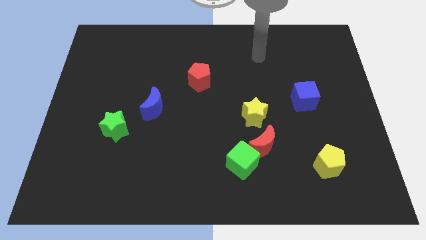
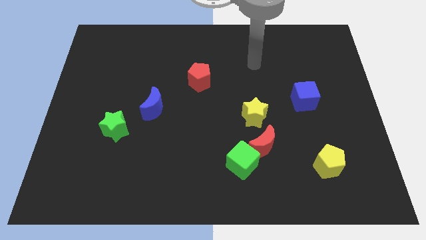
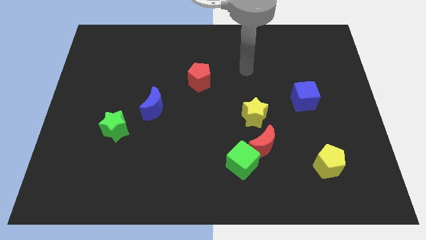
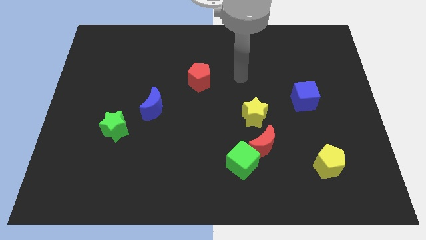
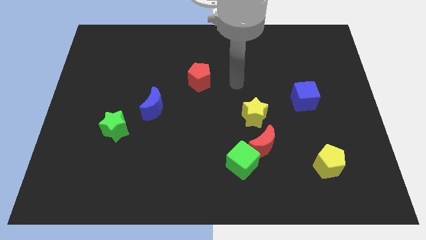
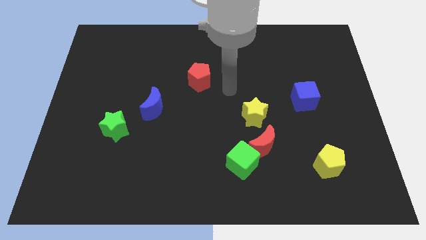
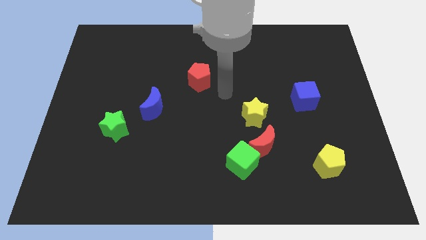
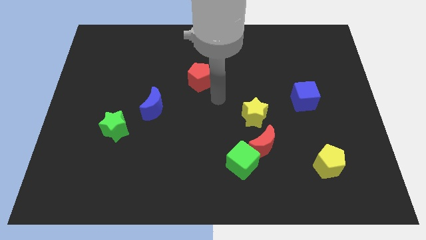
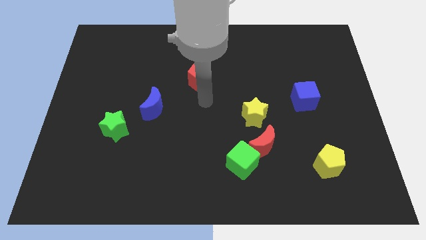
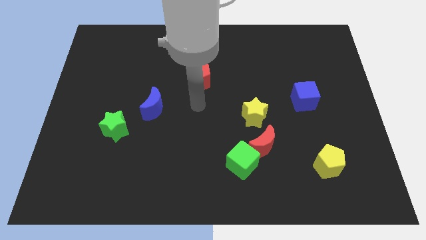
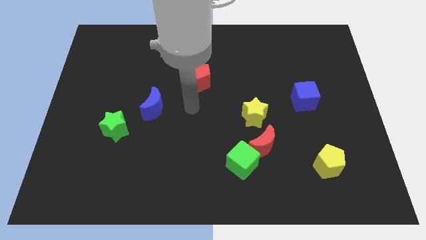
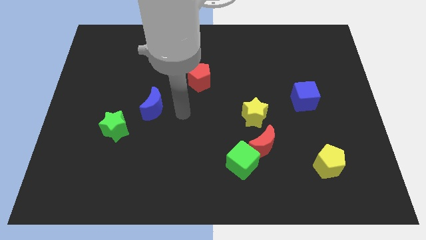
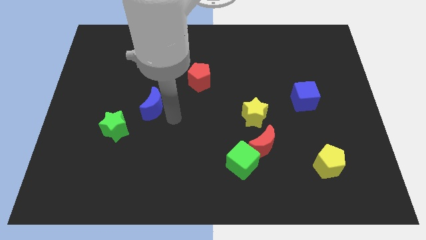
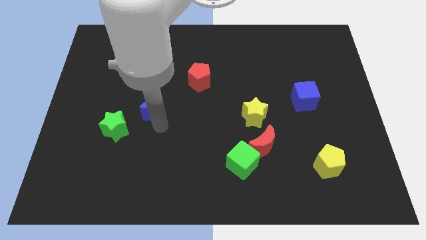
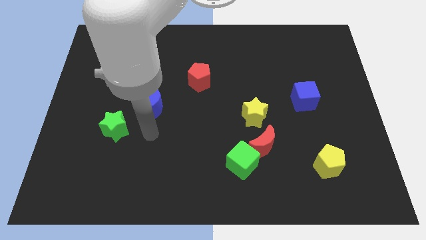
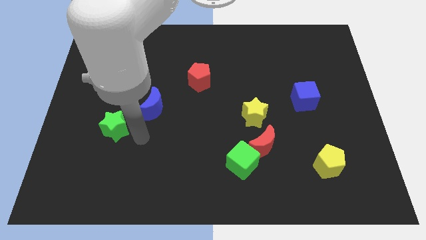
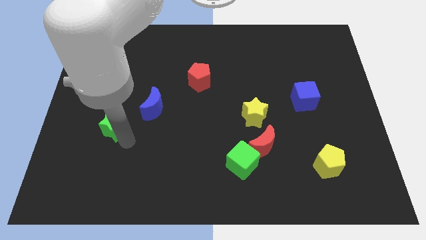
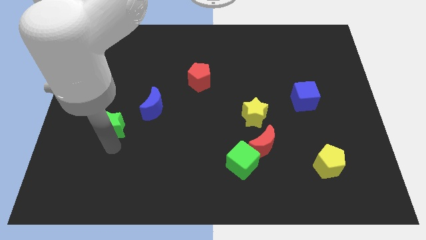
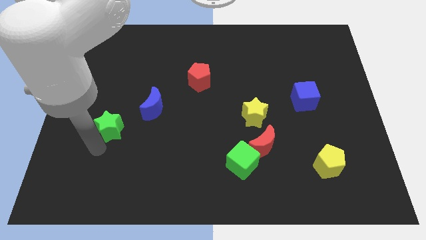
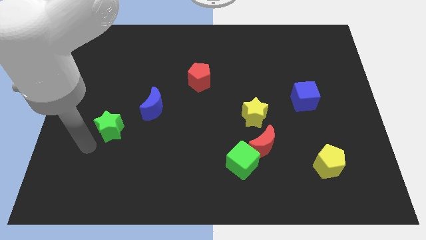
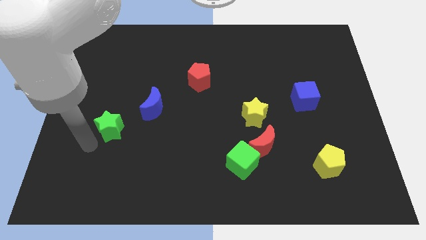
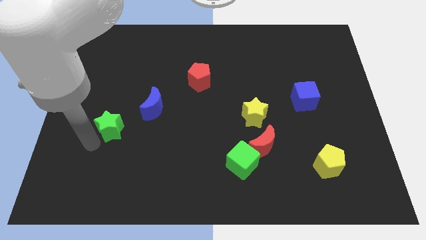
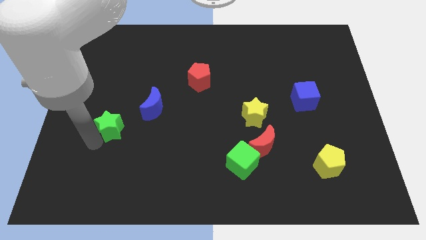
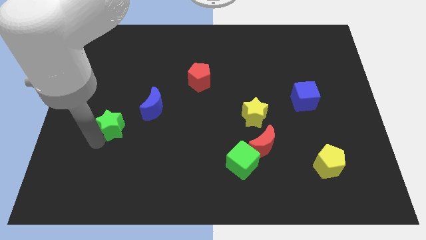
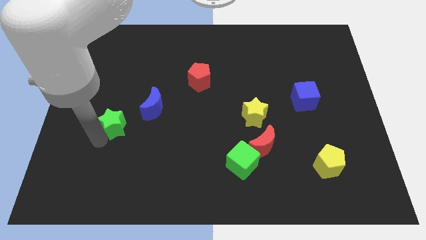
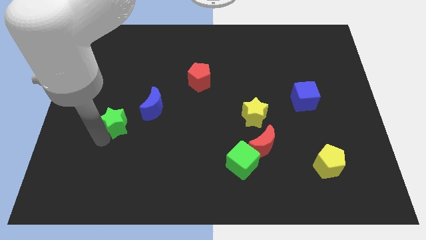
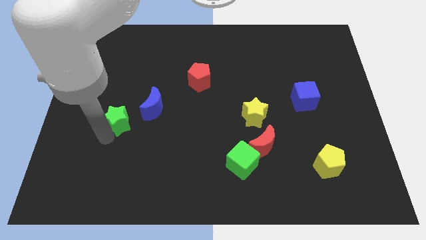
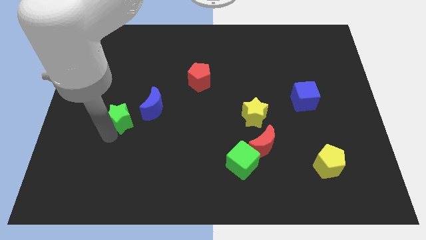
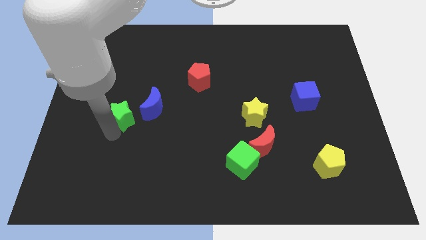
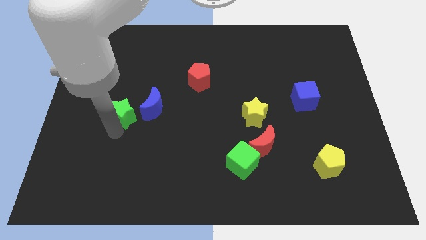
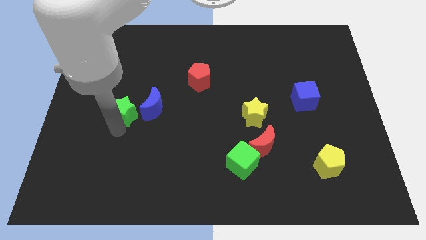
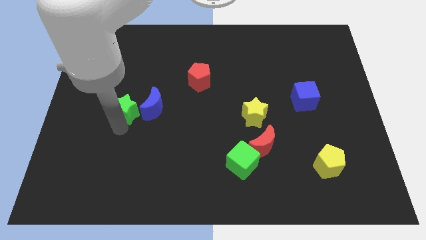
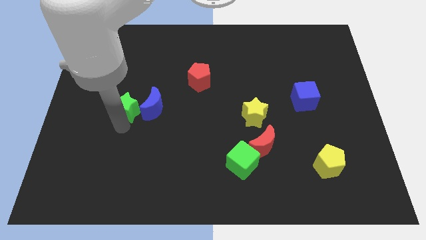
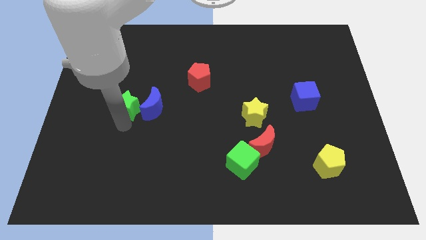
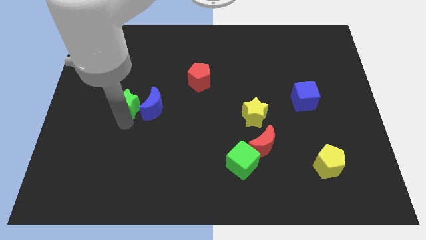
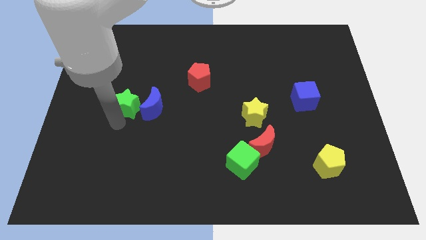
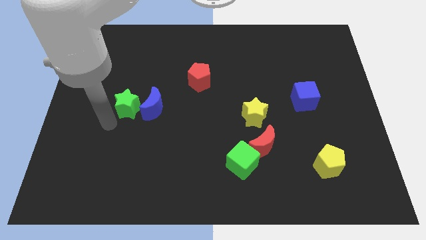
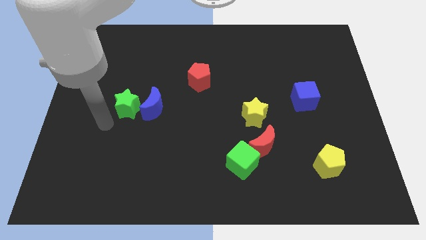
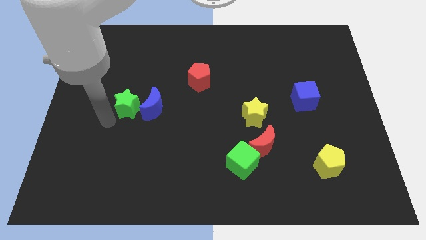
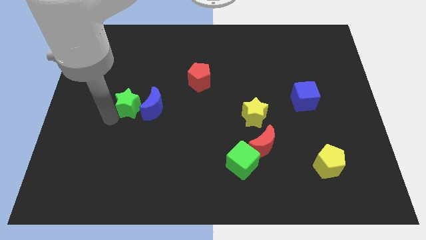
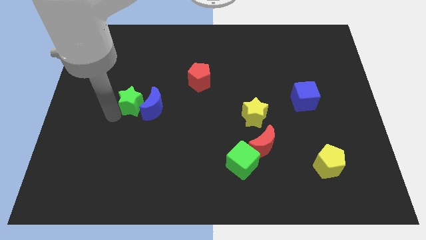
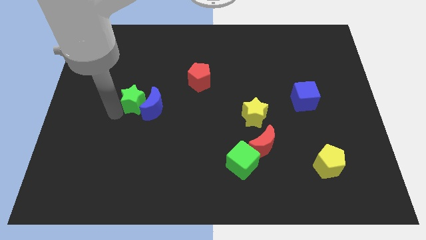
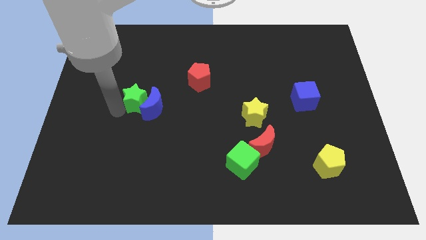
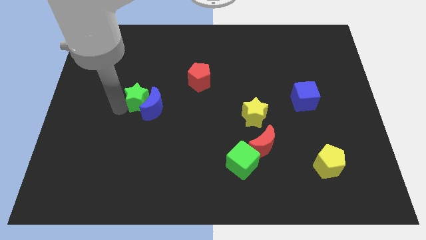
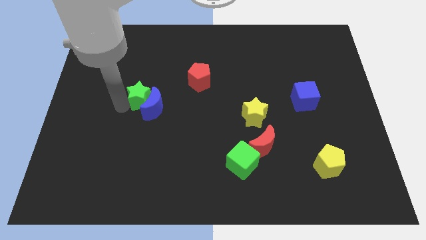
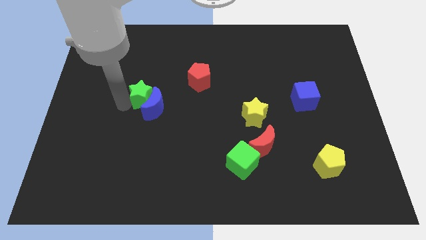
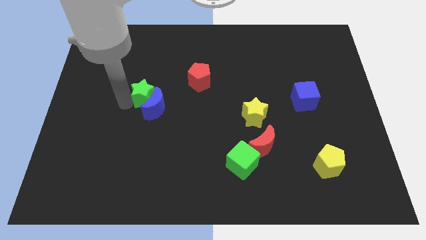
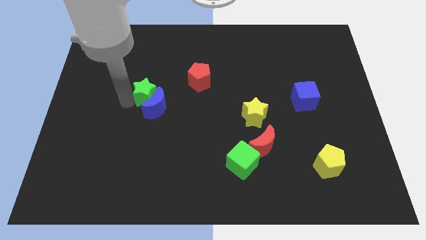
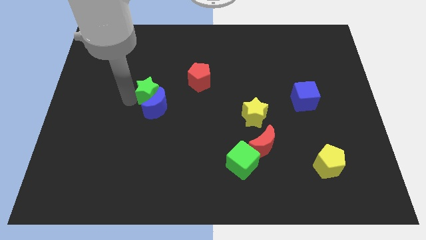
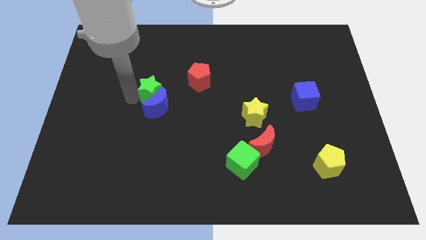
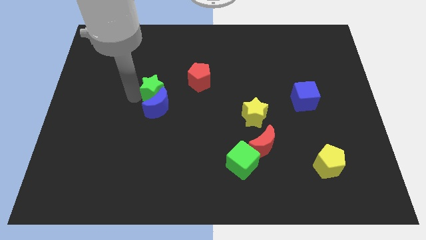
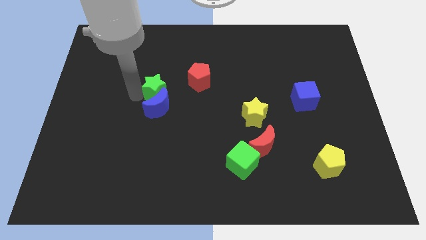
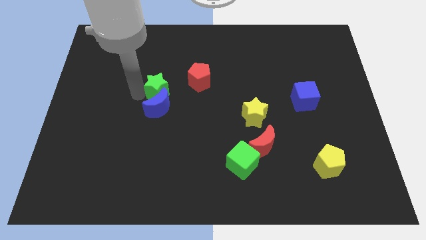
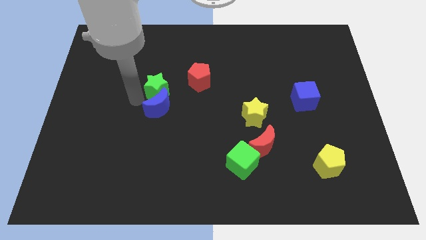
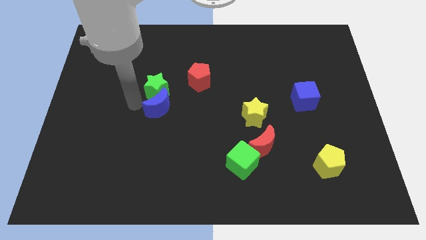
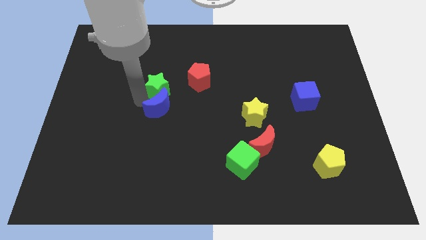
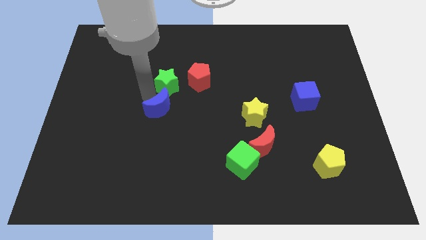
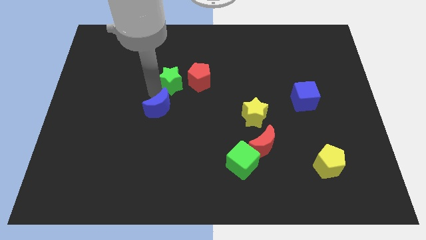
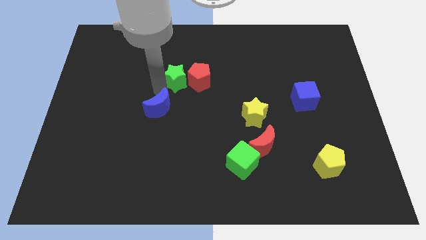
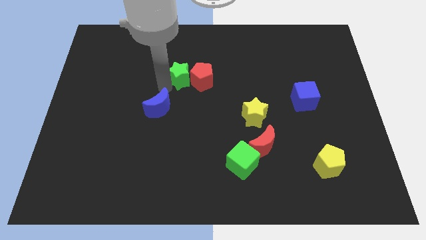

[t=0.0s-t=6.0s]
move the green star up and to the right

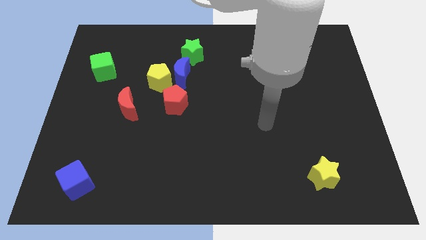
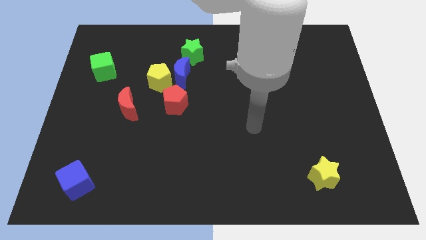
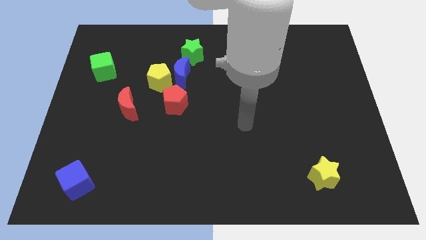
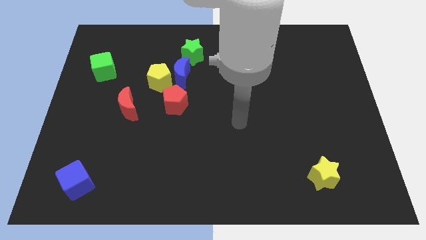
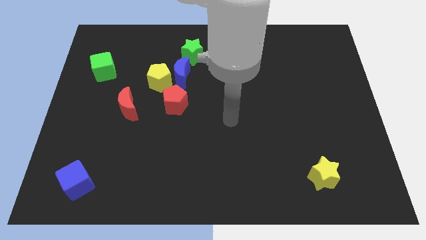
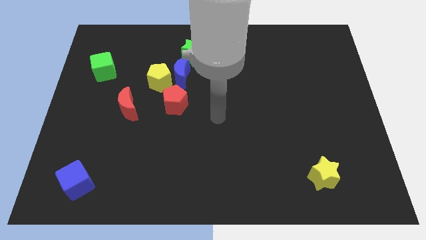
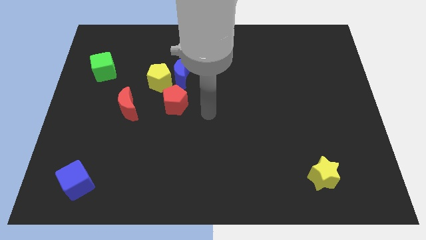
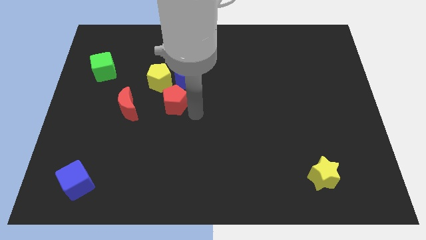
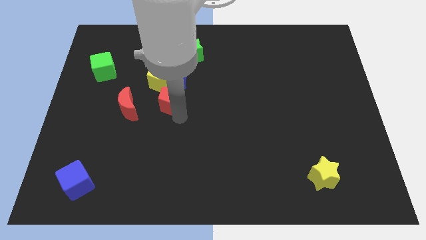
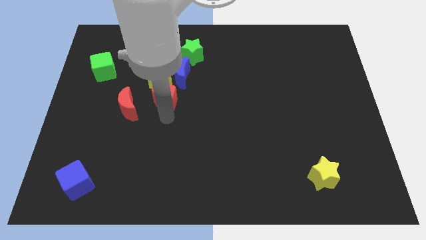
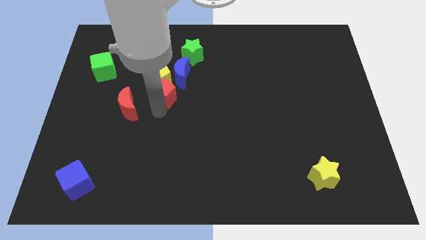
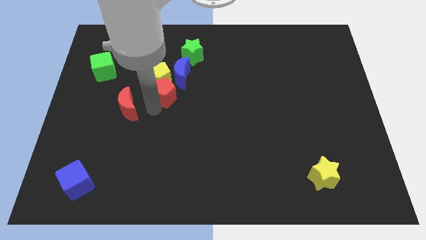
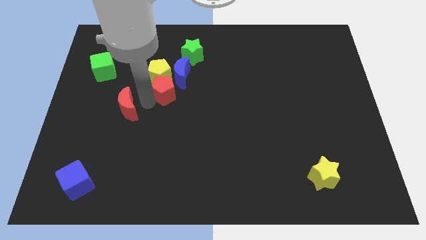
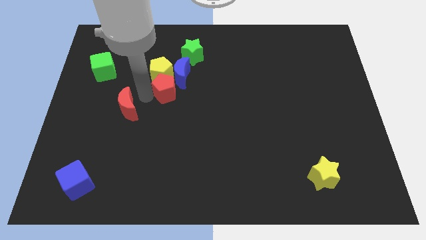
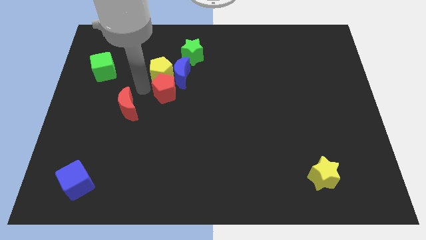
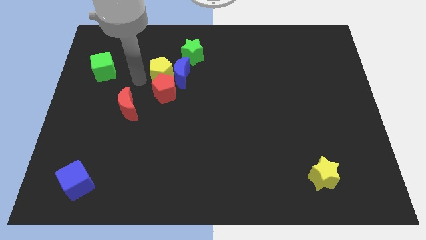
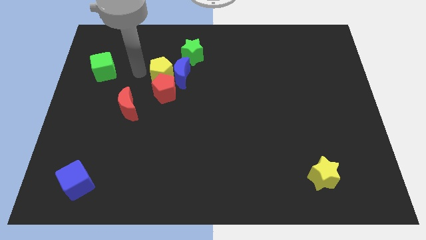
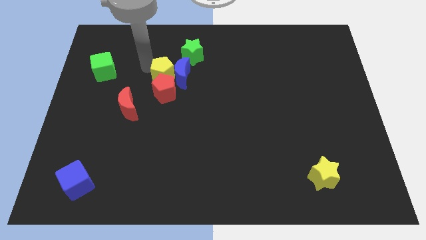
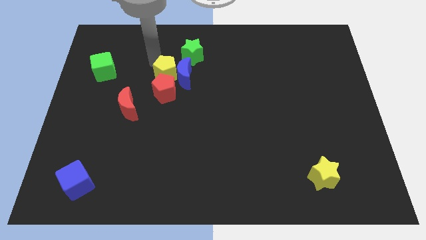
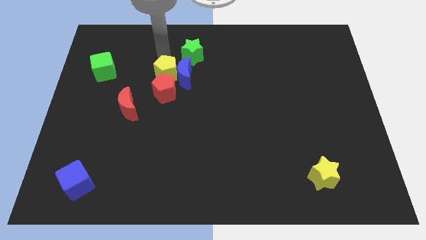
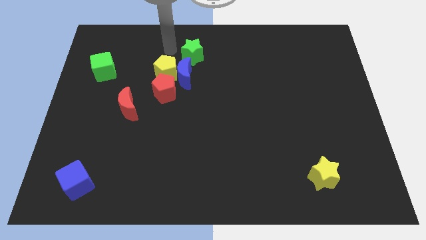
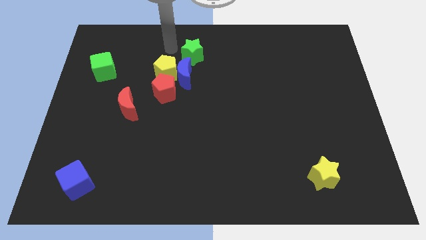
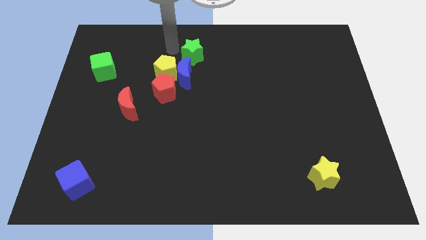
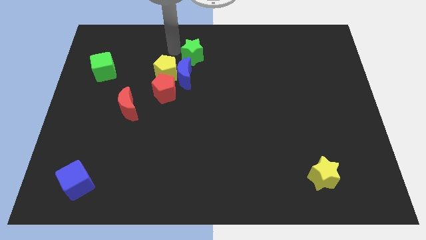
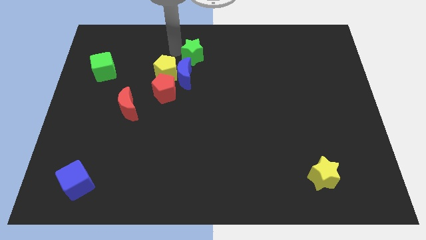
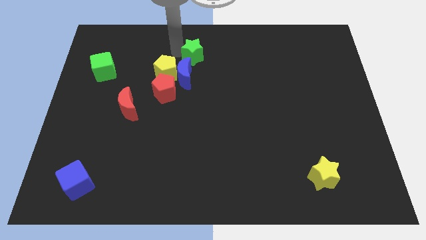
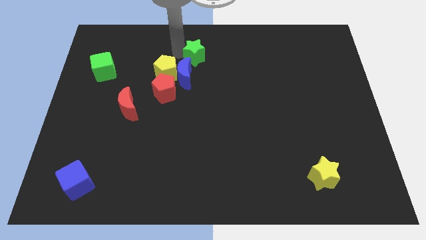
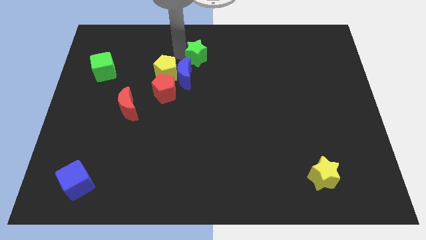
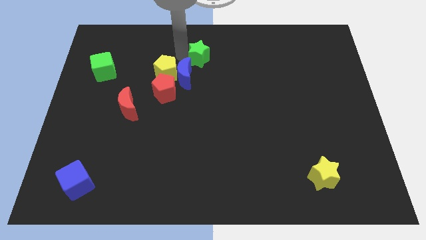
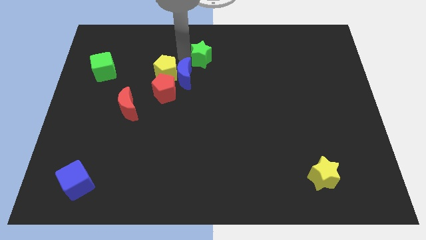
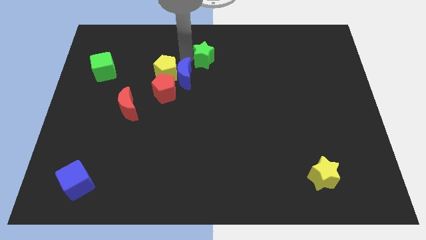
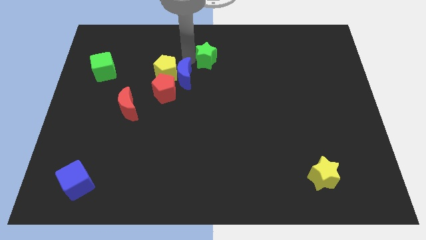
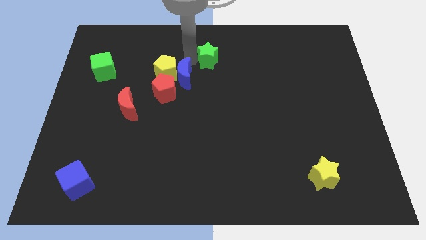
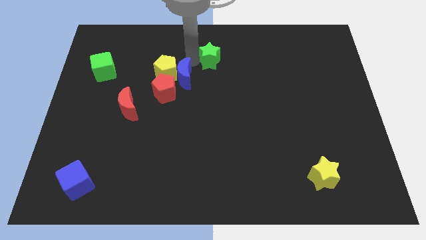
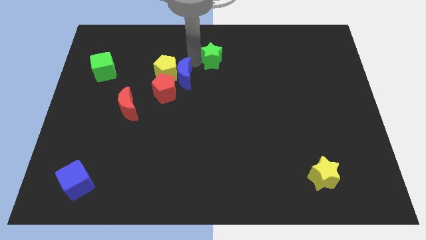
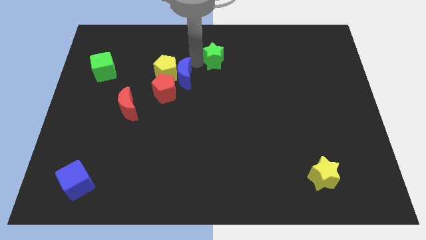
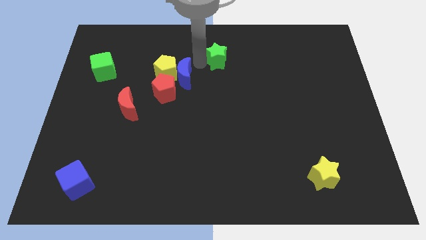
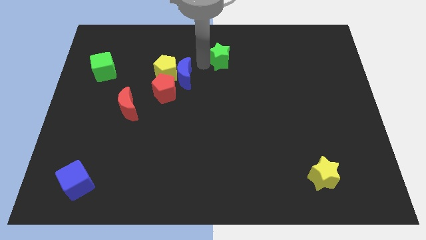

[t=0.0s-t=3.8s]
slide the green star right a little
